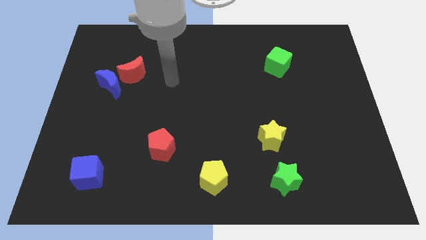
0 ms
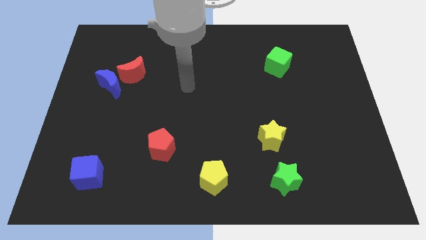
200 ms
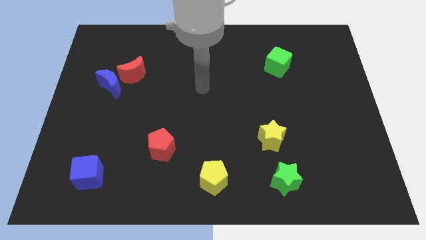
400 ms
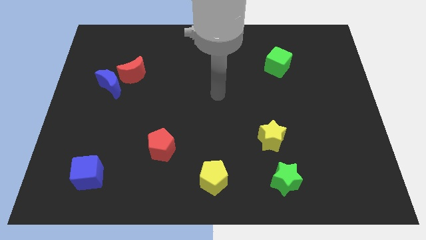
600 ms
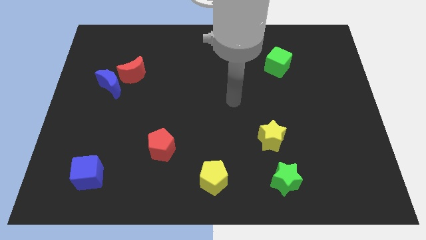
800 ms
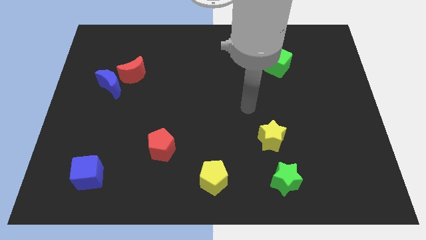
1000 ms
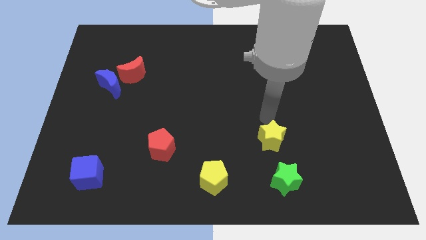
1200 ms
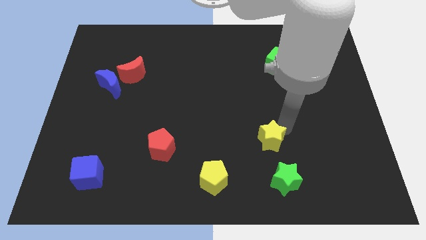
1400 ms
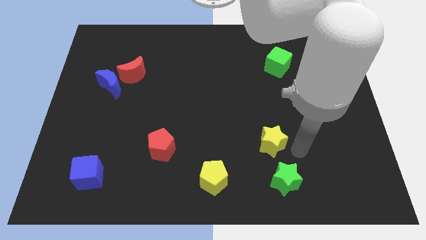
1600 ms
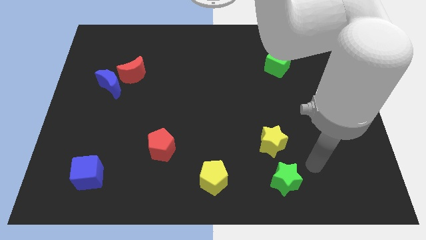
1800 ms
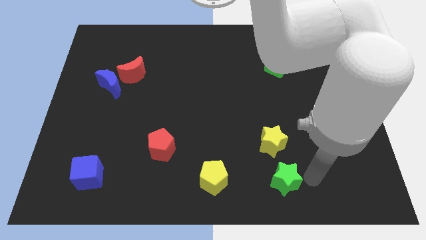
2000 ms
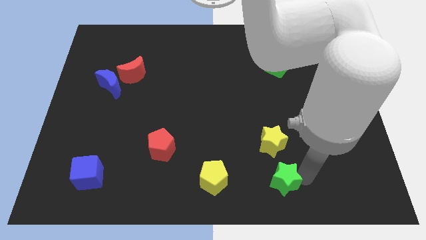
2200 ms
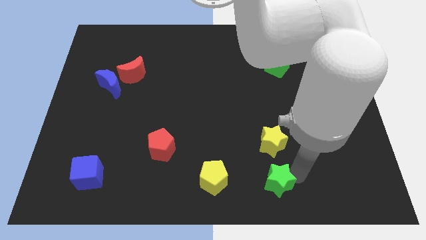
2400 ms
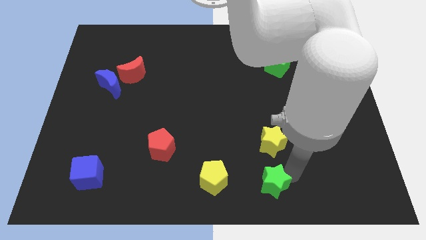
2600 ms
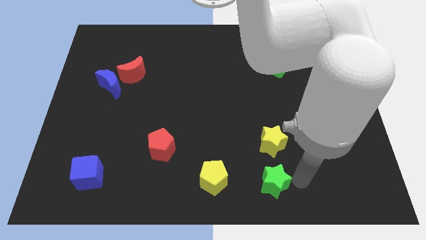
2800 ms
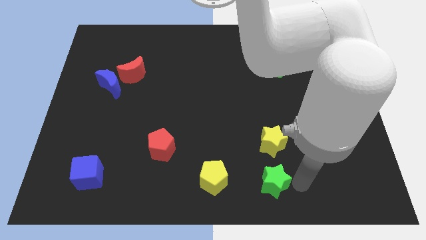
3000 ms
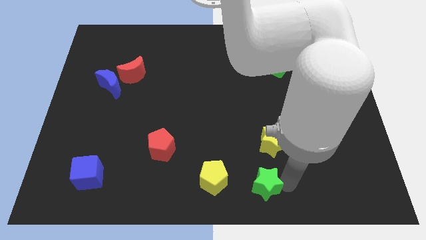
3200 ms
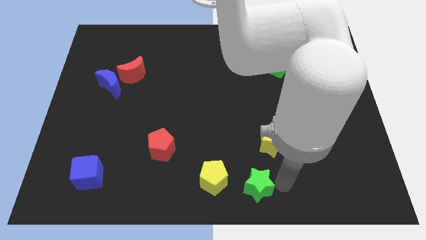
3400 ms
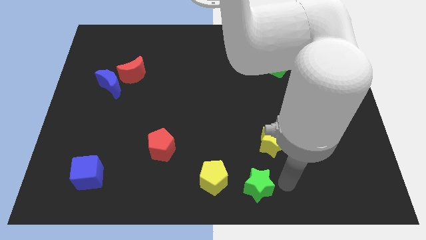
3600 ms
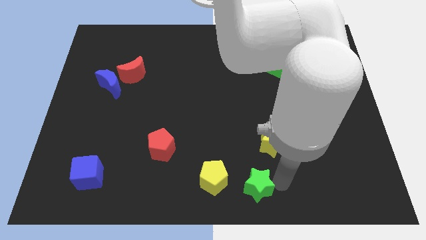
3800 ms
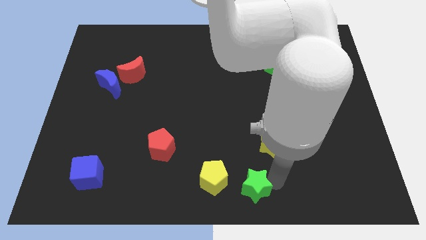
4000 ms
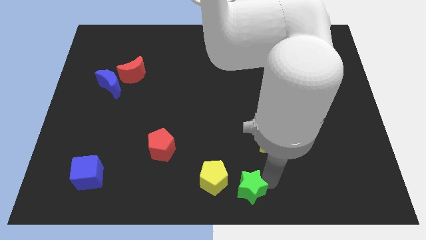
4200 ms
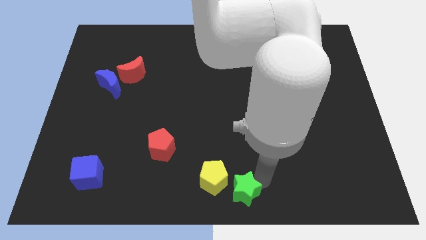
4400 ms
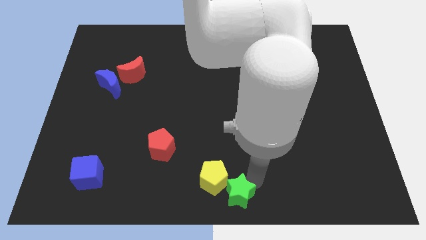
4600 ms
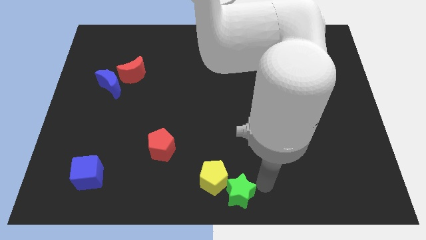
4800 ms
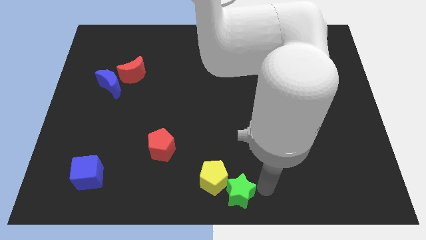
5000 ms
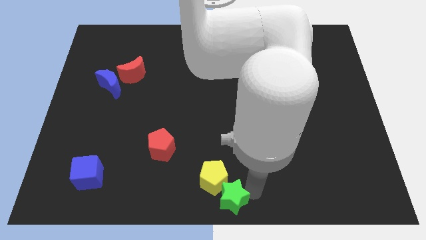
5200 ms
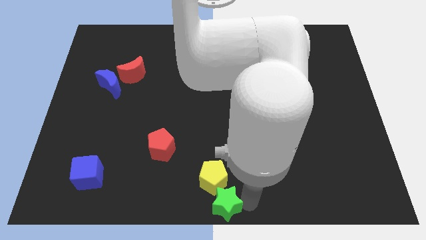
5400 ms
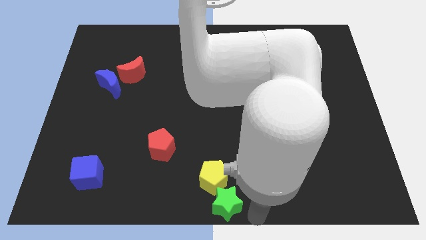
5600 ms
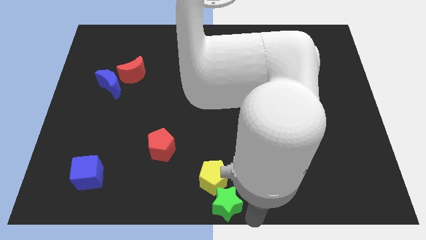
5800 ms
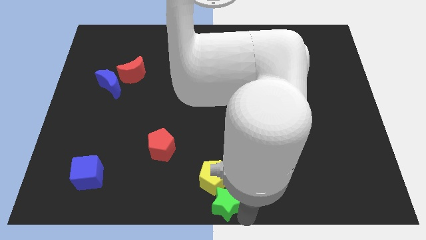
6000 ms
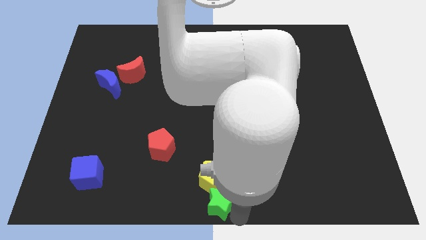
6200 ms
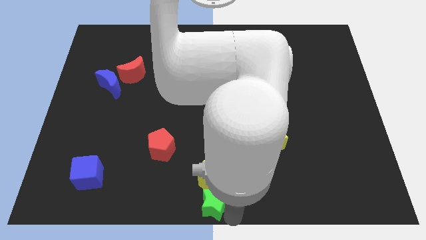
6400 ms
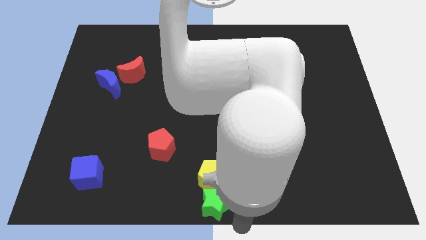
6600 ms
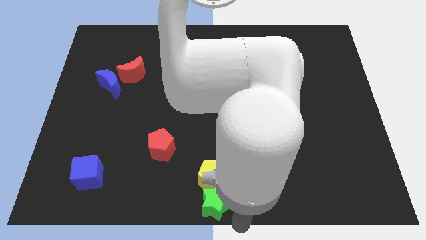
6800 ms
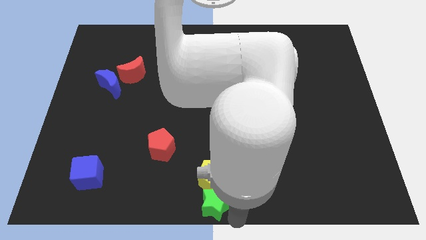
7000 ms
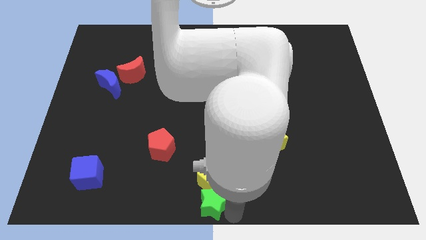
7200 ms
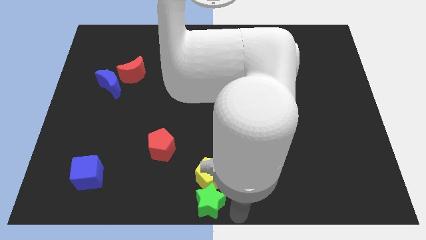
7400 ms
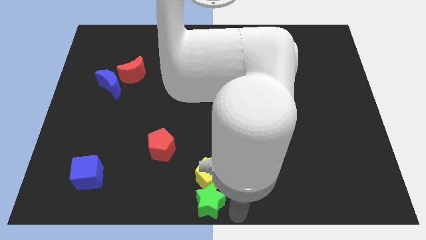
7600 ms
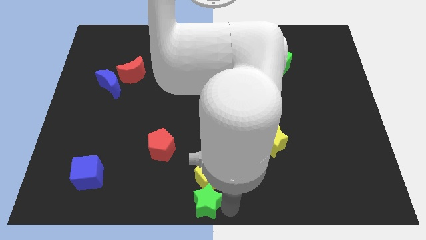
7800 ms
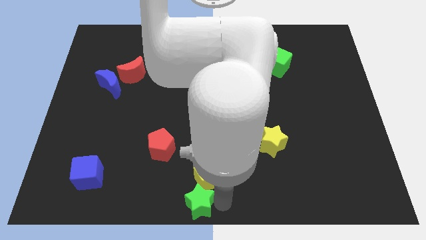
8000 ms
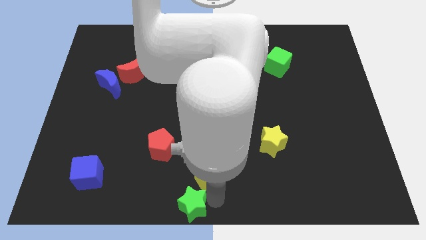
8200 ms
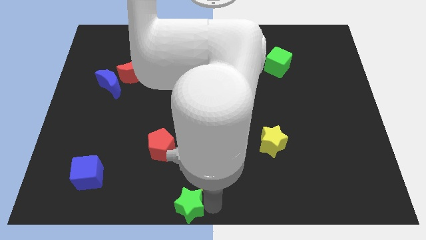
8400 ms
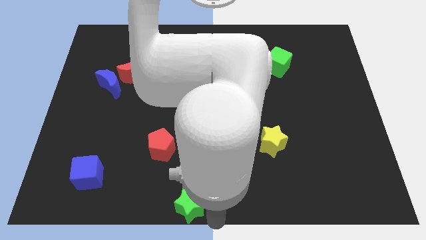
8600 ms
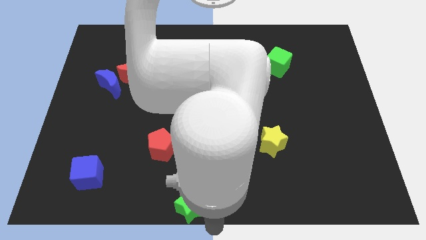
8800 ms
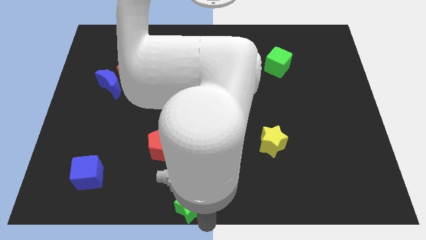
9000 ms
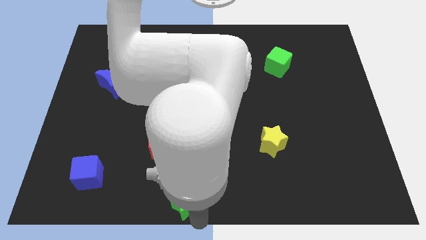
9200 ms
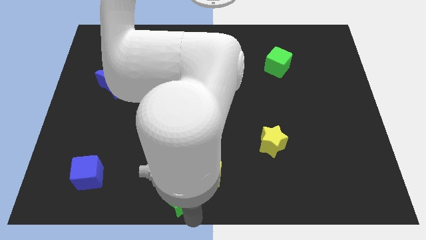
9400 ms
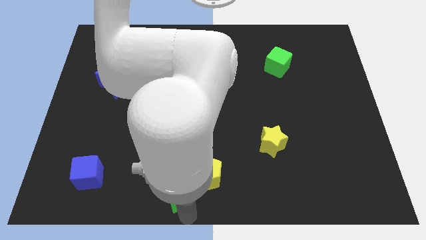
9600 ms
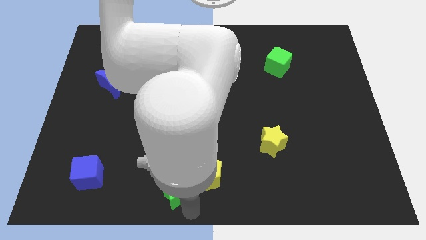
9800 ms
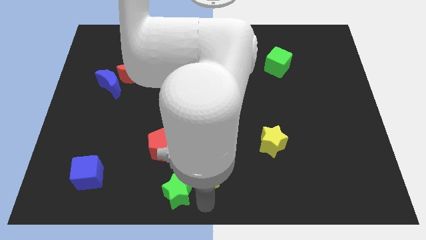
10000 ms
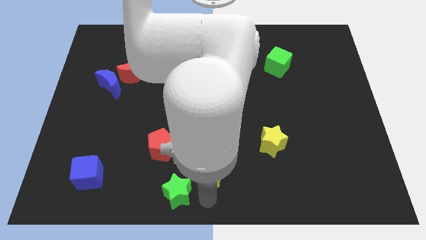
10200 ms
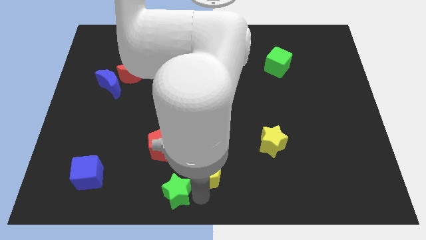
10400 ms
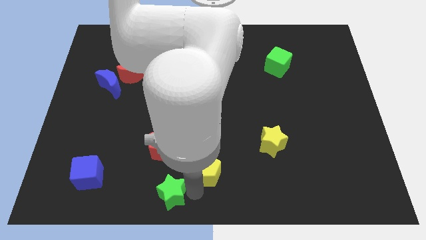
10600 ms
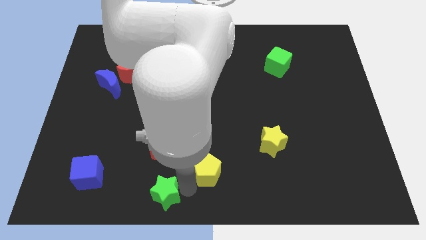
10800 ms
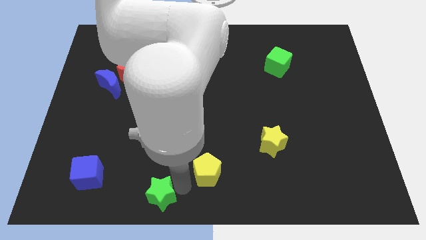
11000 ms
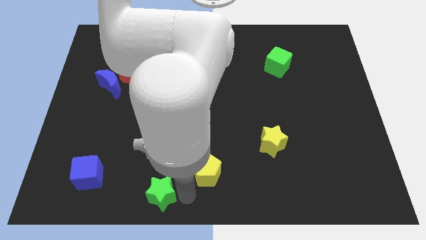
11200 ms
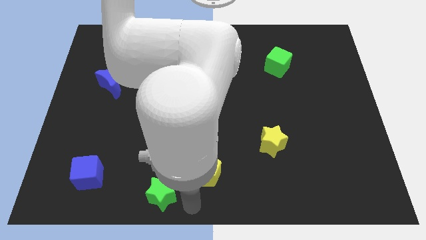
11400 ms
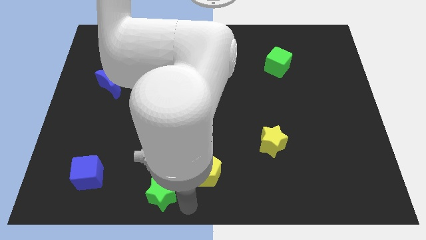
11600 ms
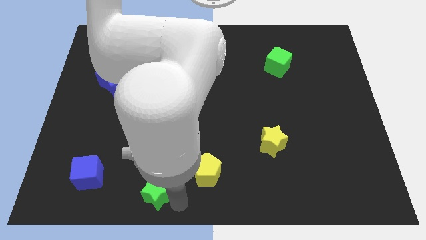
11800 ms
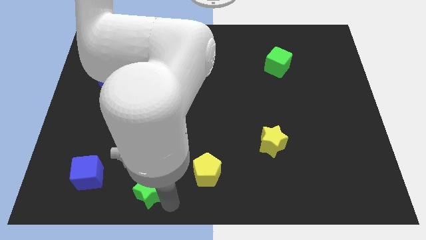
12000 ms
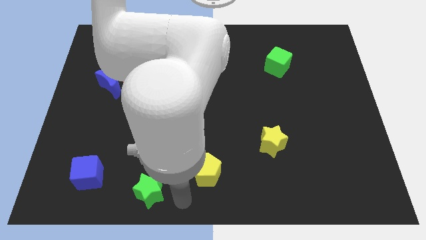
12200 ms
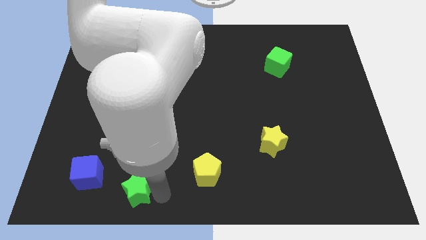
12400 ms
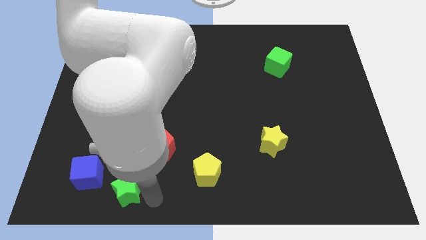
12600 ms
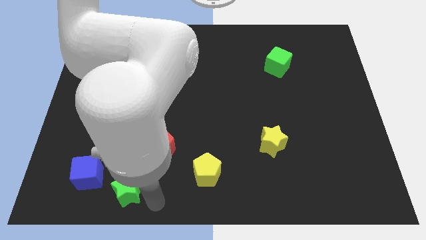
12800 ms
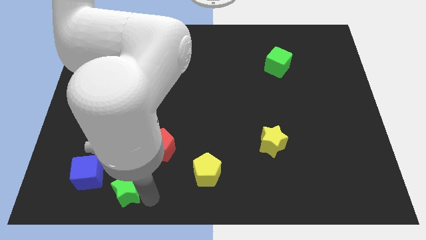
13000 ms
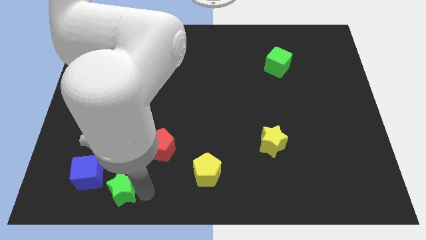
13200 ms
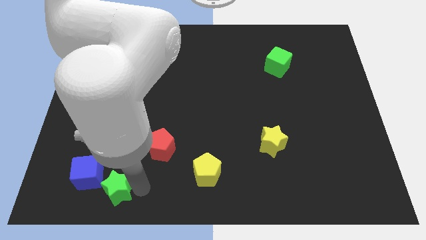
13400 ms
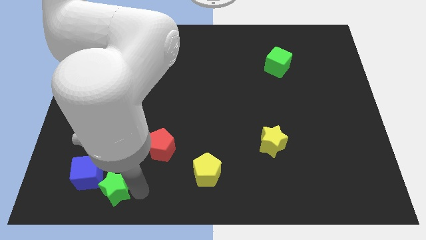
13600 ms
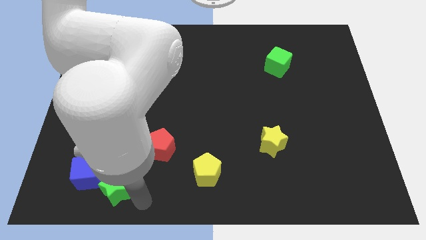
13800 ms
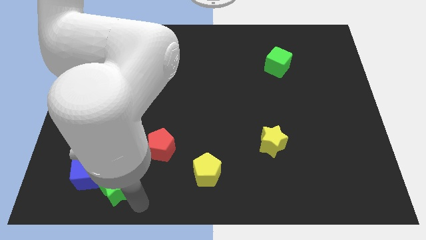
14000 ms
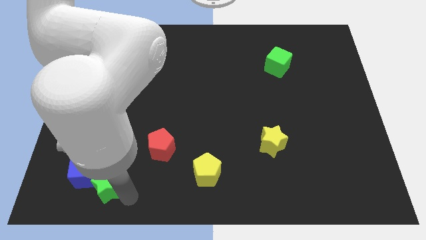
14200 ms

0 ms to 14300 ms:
put the green star next to the blue cube

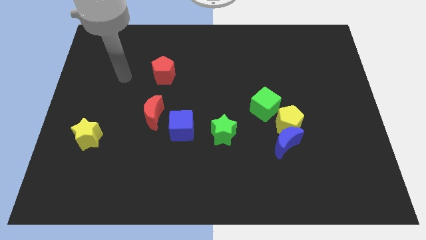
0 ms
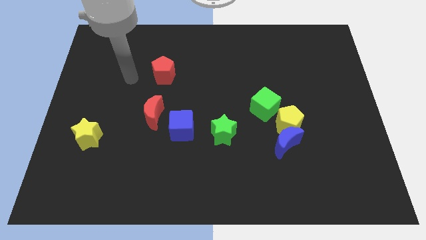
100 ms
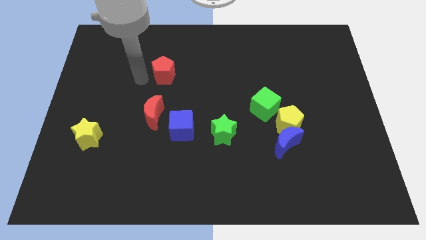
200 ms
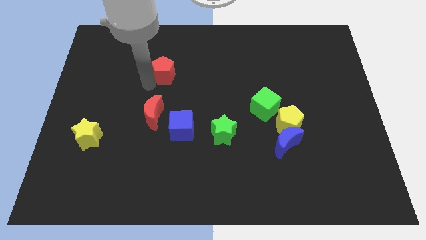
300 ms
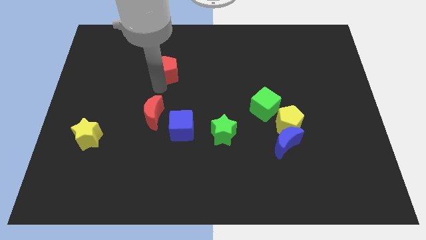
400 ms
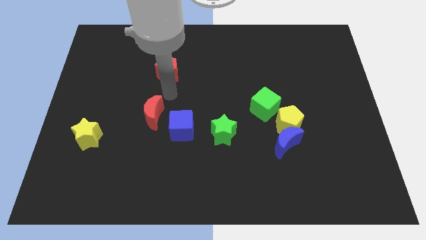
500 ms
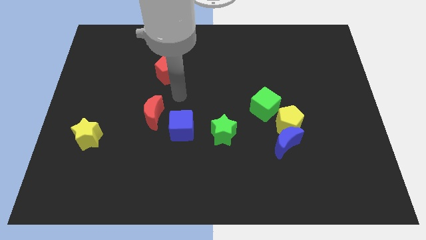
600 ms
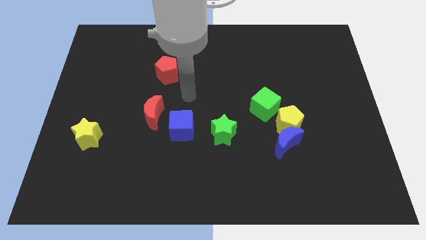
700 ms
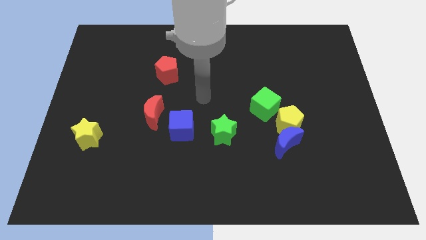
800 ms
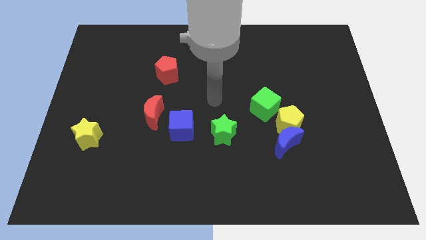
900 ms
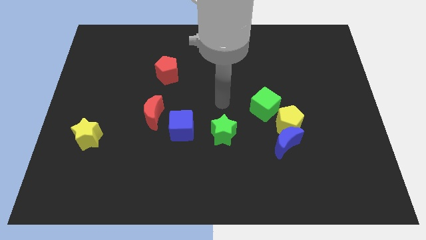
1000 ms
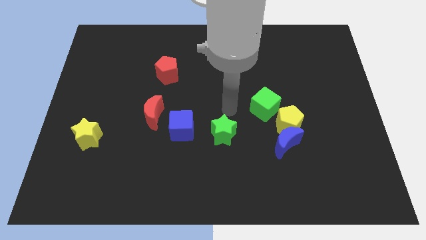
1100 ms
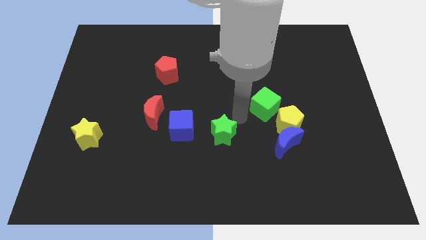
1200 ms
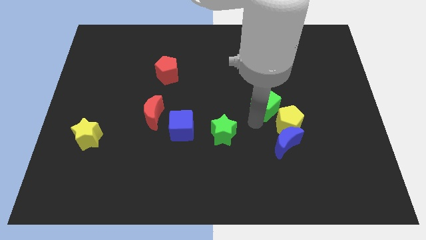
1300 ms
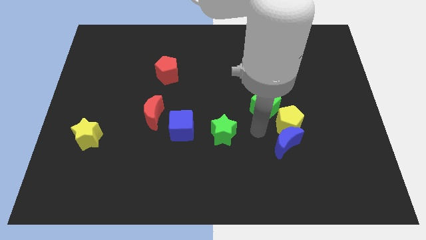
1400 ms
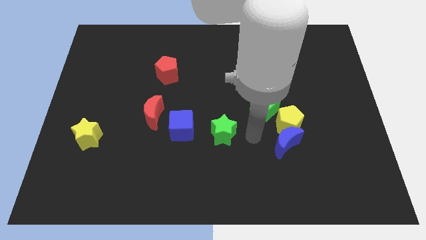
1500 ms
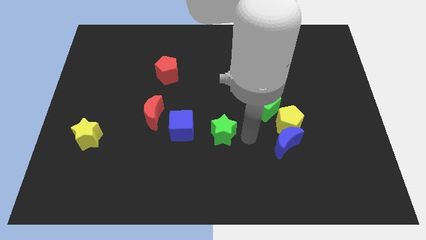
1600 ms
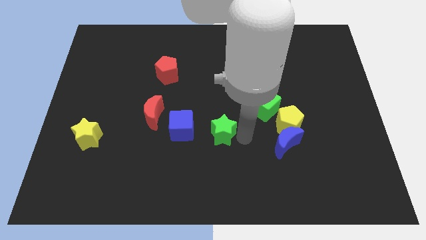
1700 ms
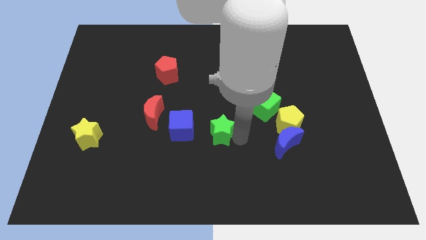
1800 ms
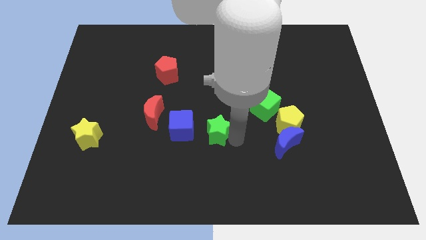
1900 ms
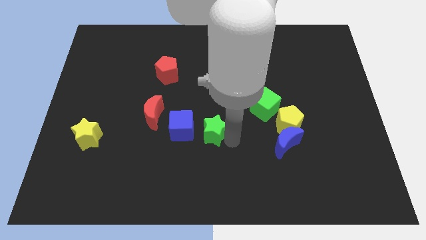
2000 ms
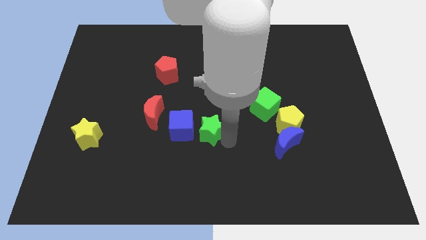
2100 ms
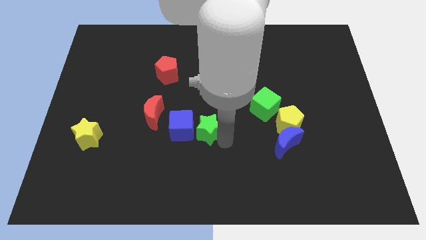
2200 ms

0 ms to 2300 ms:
move the green star next to the blue cube
